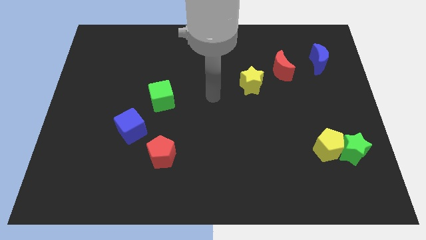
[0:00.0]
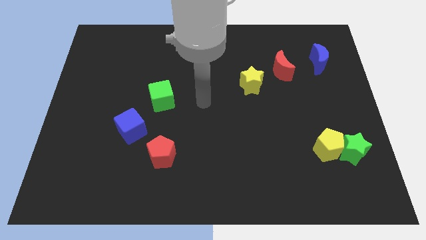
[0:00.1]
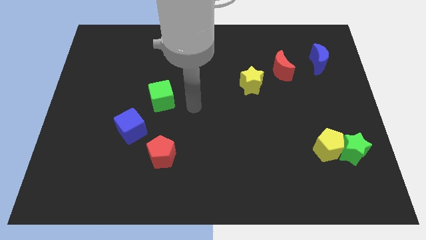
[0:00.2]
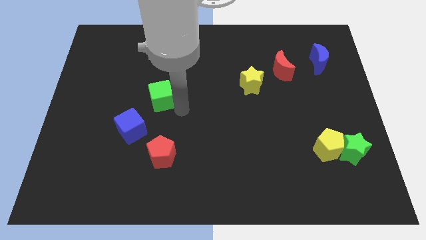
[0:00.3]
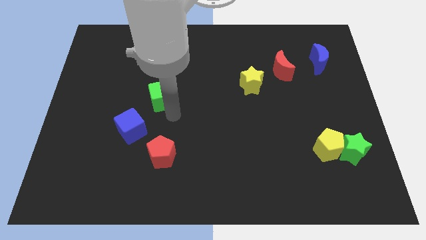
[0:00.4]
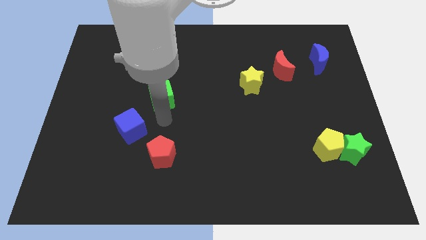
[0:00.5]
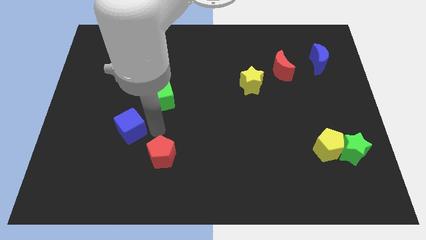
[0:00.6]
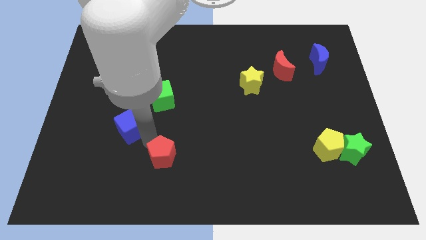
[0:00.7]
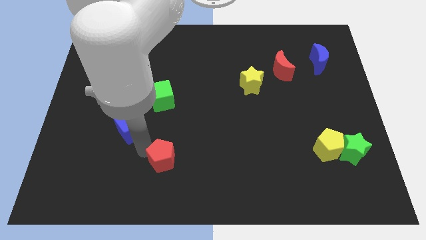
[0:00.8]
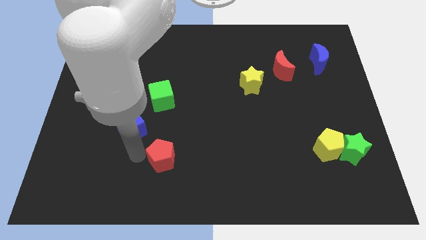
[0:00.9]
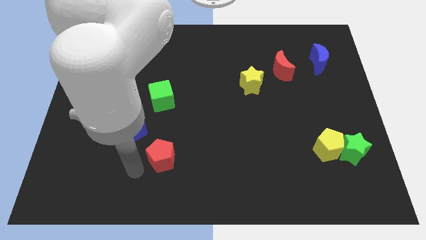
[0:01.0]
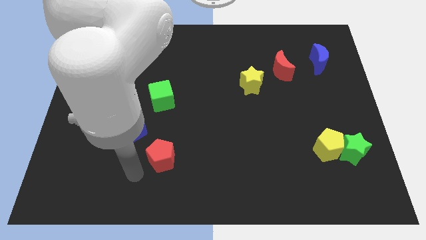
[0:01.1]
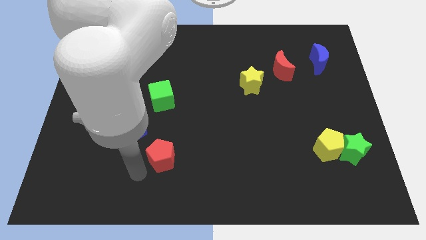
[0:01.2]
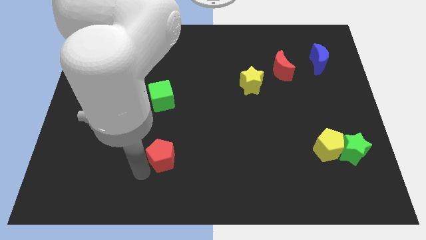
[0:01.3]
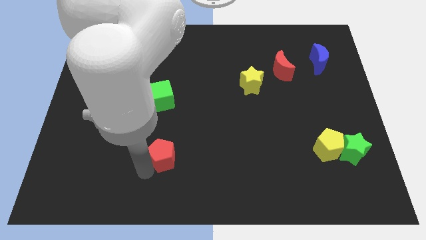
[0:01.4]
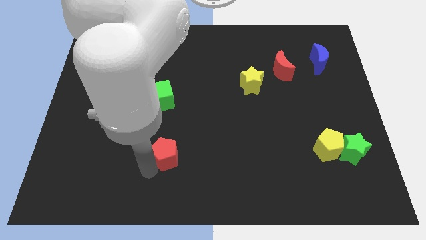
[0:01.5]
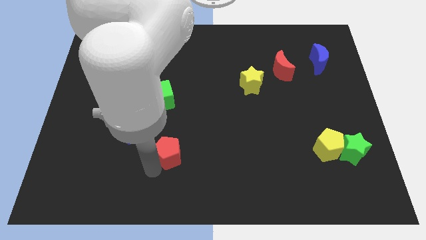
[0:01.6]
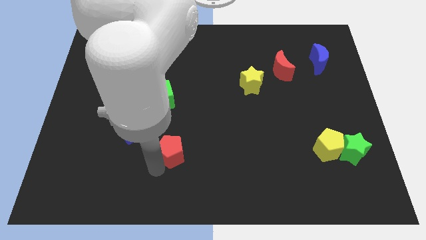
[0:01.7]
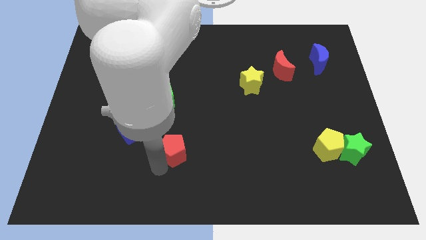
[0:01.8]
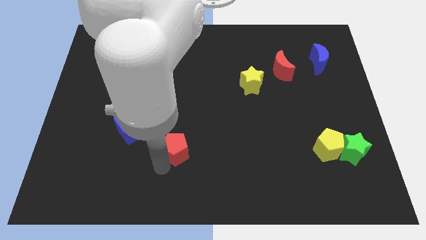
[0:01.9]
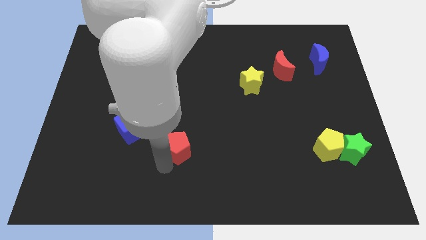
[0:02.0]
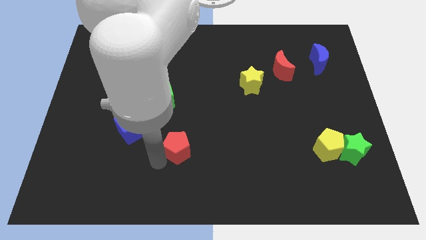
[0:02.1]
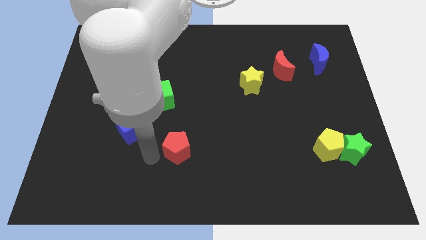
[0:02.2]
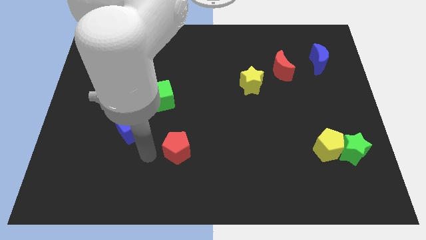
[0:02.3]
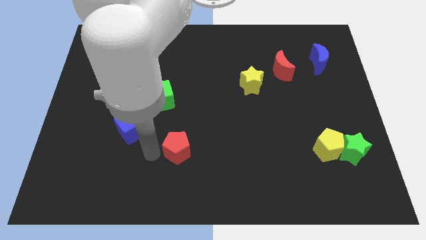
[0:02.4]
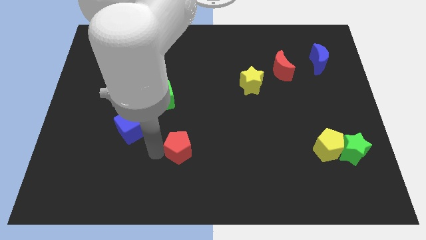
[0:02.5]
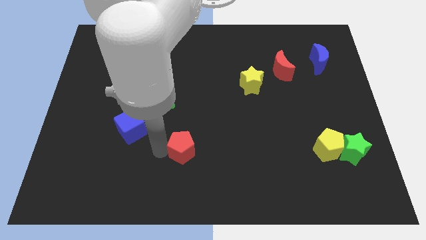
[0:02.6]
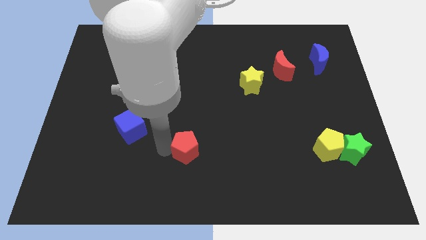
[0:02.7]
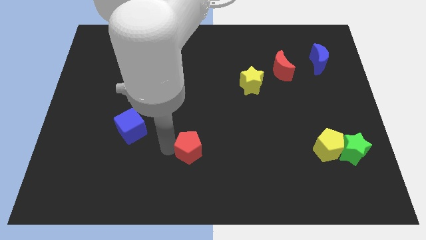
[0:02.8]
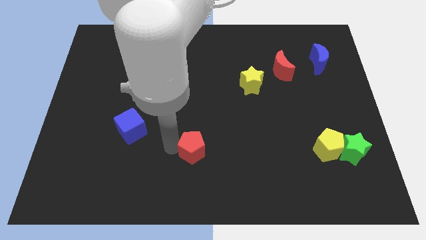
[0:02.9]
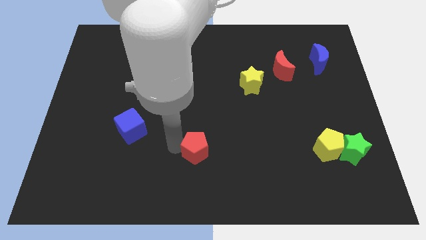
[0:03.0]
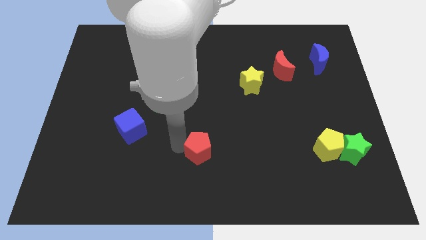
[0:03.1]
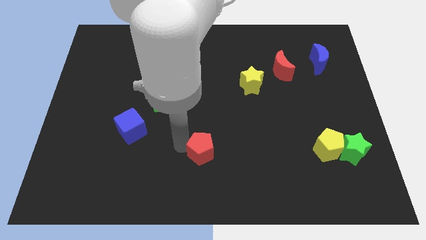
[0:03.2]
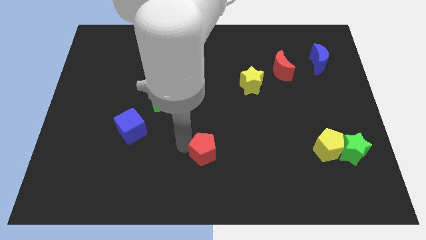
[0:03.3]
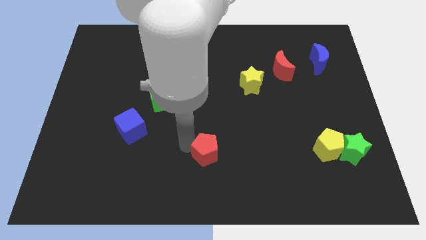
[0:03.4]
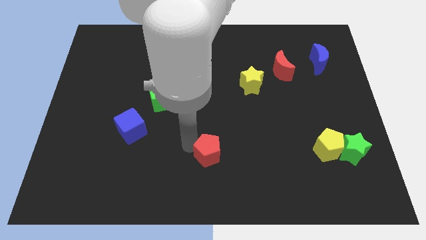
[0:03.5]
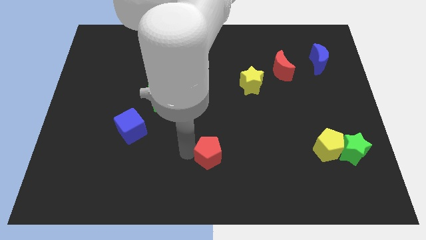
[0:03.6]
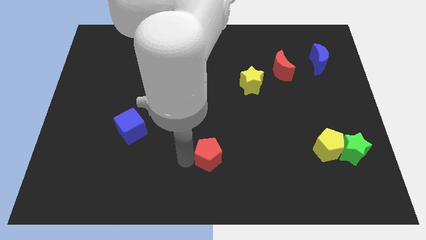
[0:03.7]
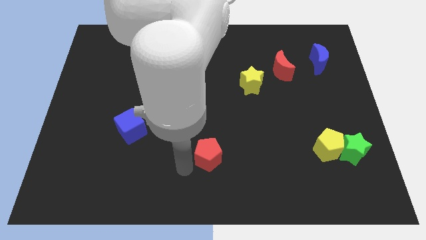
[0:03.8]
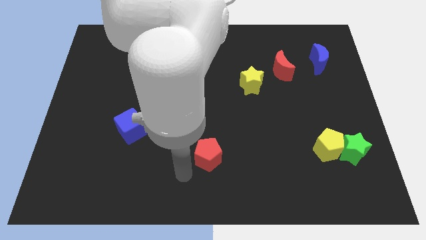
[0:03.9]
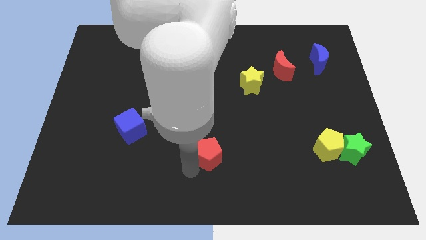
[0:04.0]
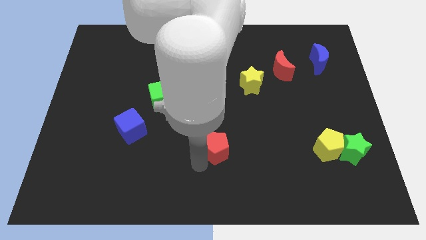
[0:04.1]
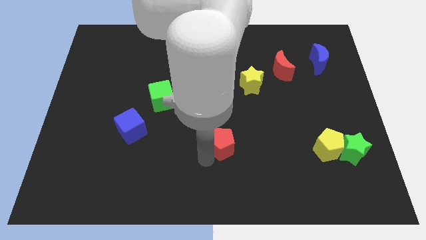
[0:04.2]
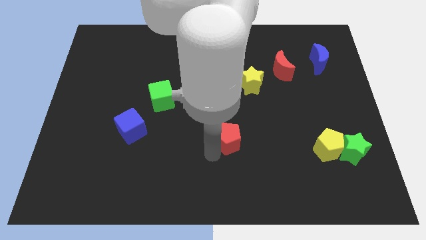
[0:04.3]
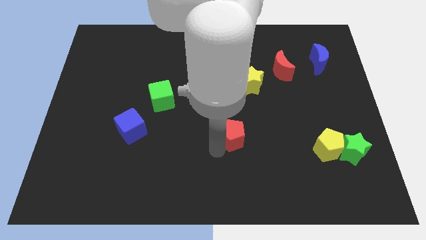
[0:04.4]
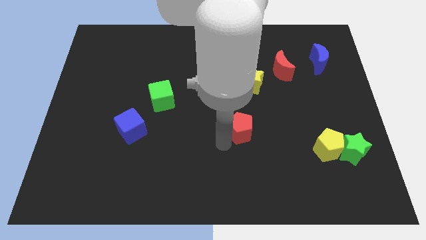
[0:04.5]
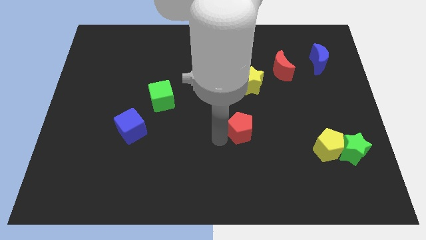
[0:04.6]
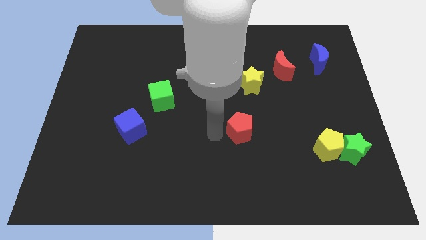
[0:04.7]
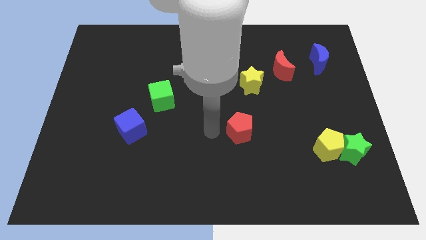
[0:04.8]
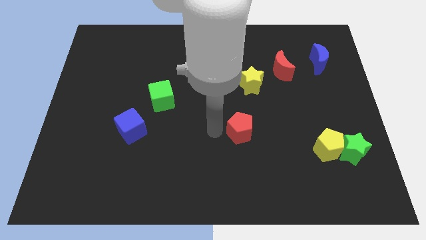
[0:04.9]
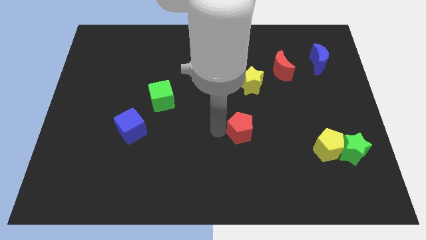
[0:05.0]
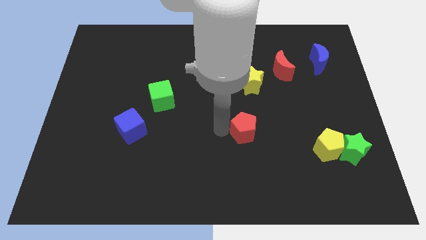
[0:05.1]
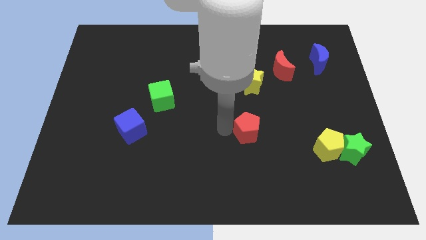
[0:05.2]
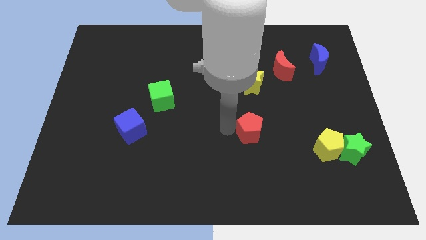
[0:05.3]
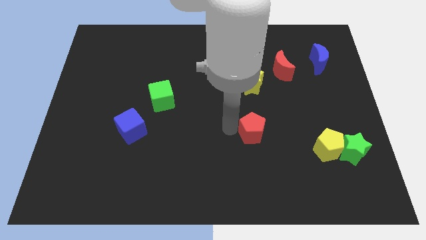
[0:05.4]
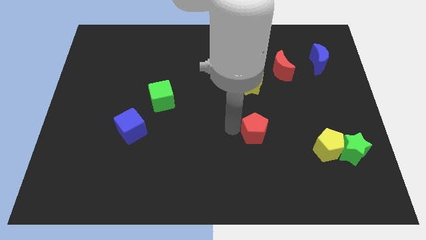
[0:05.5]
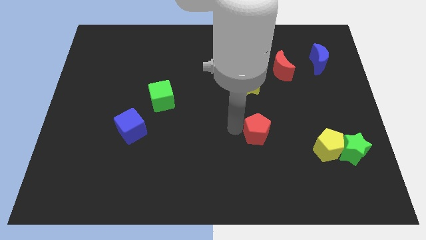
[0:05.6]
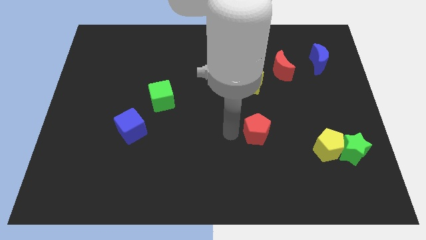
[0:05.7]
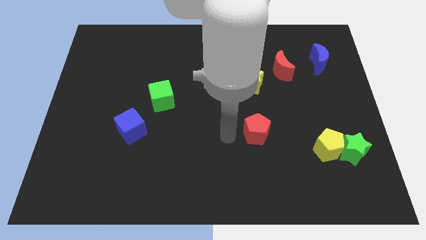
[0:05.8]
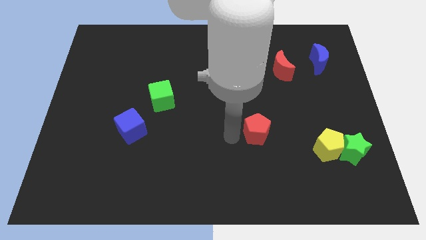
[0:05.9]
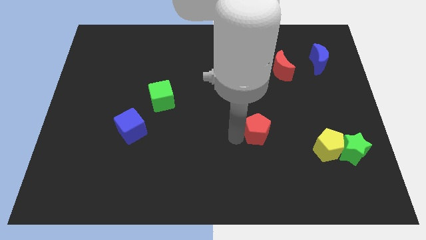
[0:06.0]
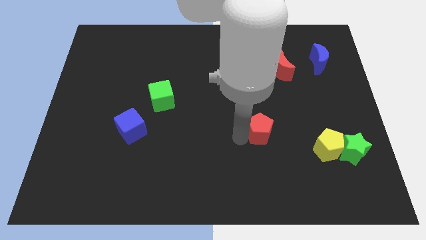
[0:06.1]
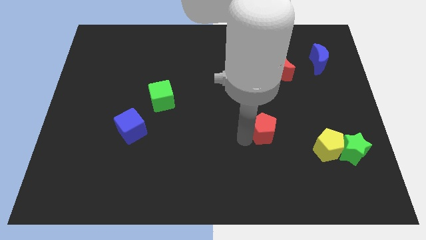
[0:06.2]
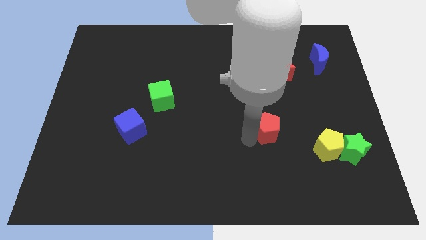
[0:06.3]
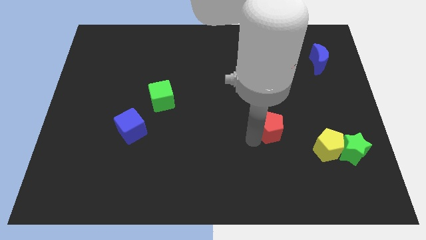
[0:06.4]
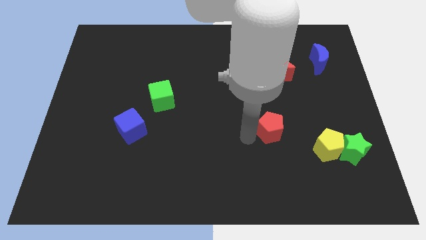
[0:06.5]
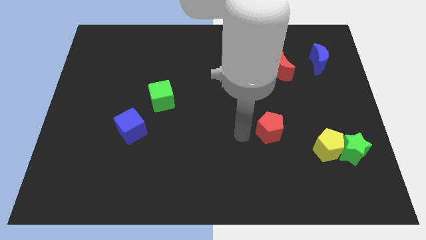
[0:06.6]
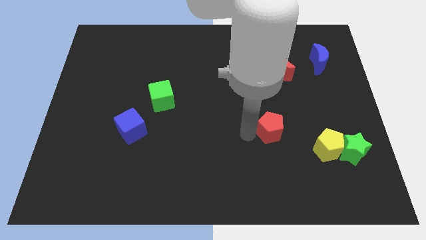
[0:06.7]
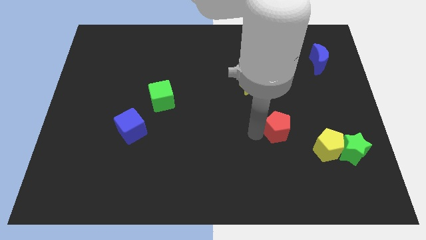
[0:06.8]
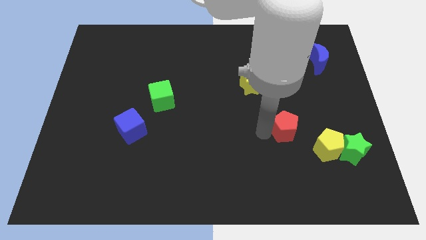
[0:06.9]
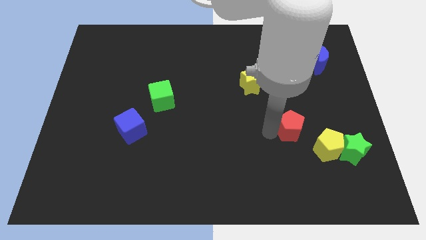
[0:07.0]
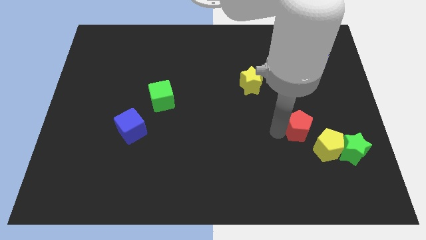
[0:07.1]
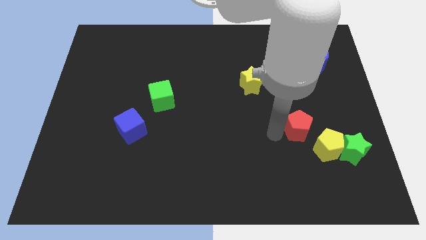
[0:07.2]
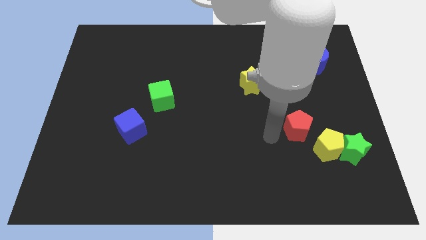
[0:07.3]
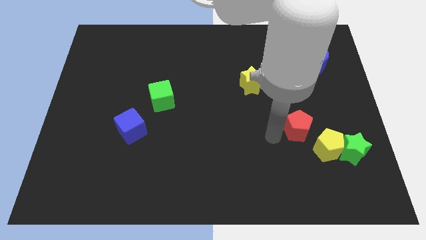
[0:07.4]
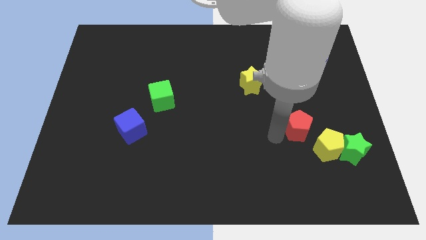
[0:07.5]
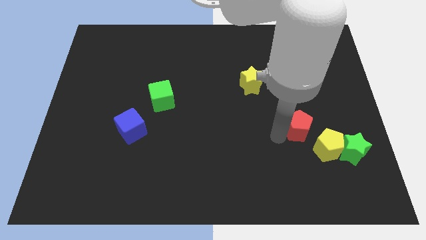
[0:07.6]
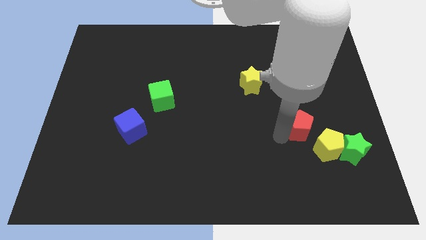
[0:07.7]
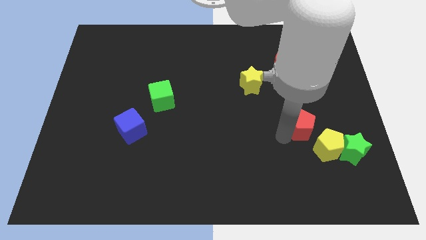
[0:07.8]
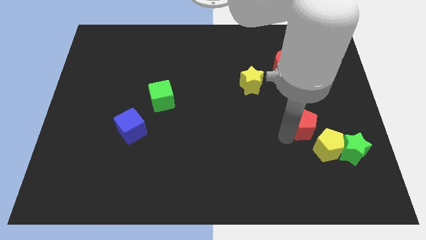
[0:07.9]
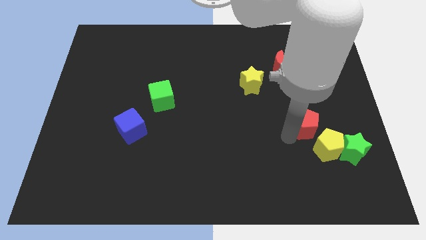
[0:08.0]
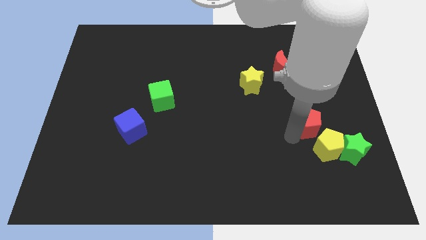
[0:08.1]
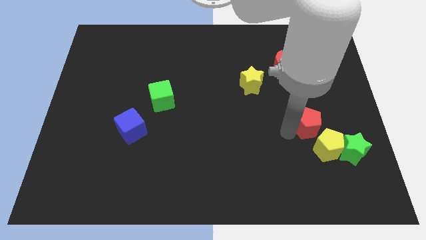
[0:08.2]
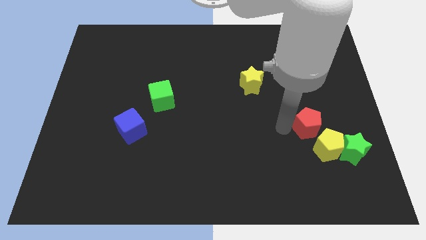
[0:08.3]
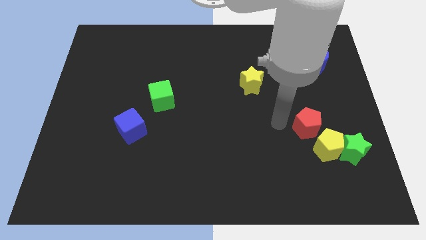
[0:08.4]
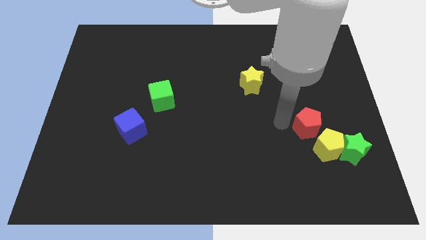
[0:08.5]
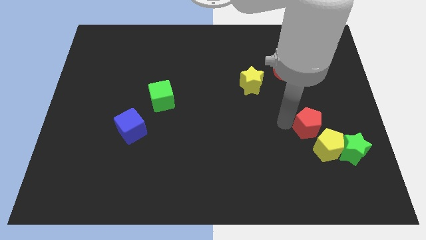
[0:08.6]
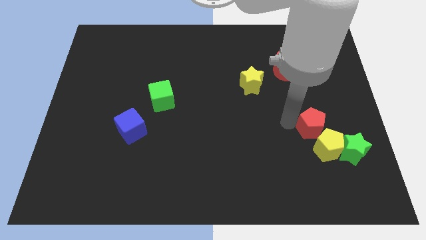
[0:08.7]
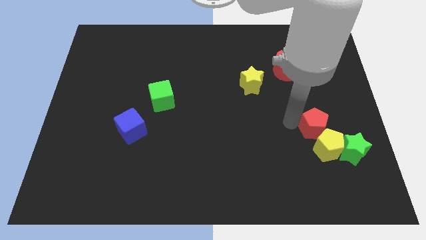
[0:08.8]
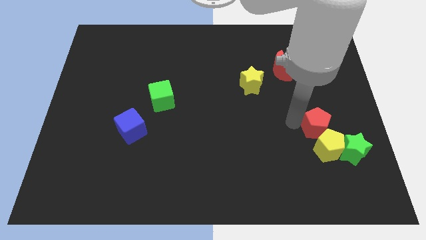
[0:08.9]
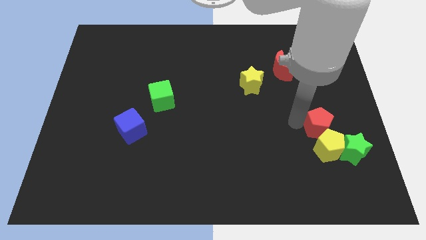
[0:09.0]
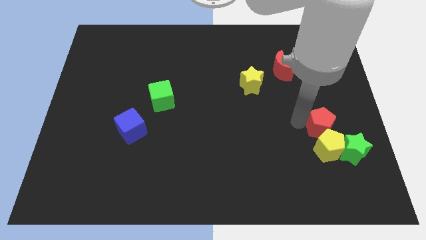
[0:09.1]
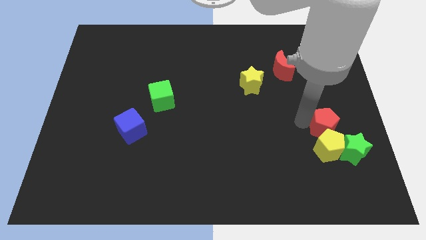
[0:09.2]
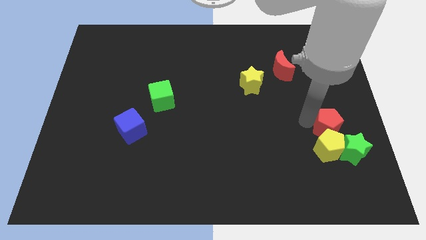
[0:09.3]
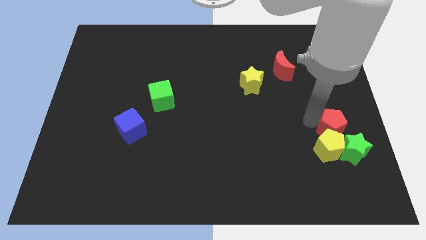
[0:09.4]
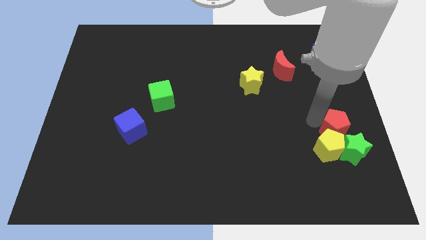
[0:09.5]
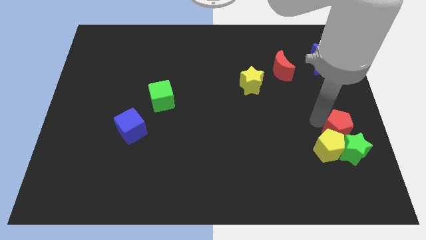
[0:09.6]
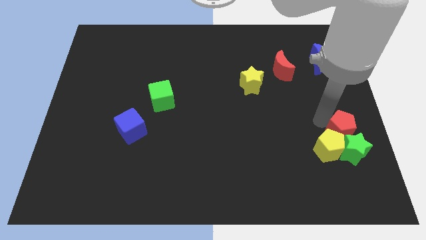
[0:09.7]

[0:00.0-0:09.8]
slide the red pentagon towards the green star
